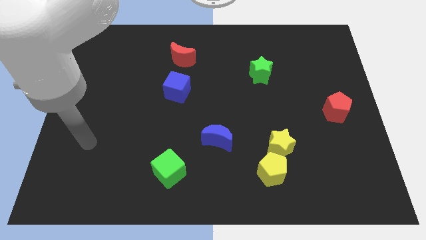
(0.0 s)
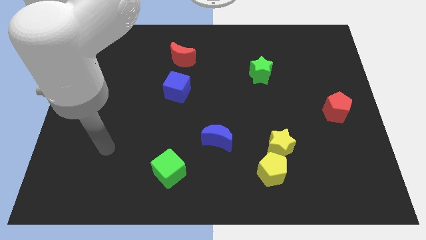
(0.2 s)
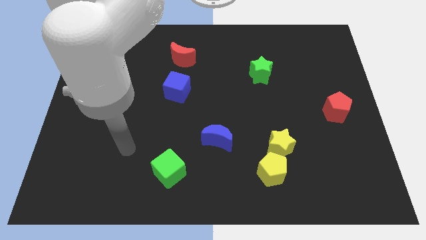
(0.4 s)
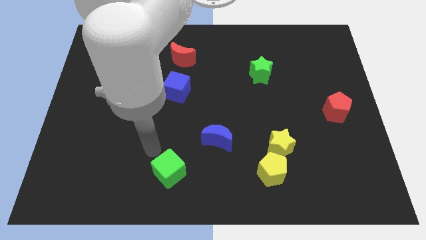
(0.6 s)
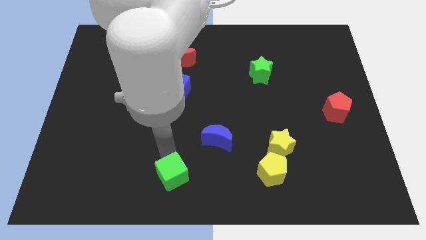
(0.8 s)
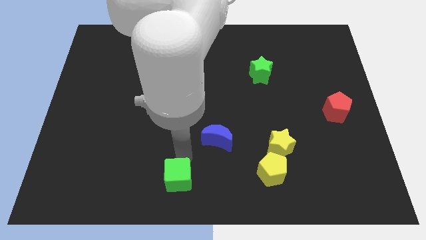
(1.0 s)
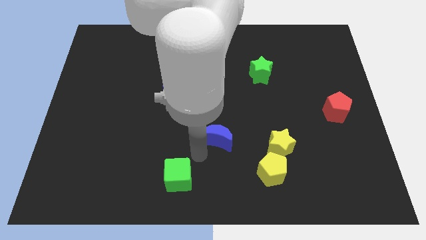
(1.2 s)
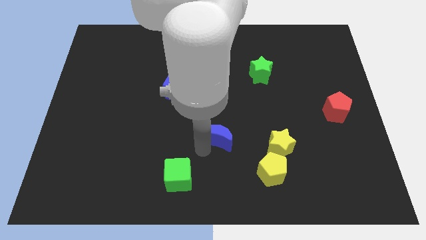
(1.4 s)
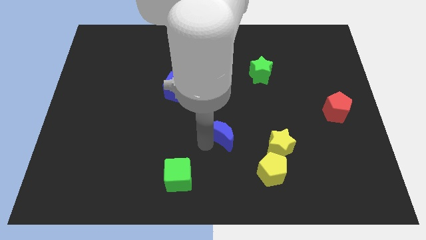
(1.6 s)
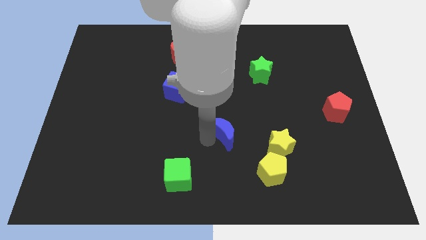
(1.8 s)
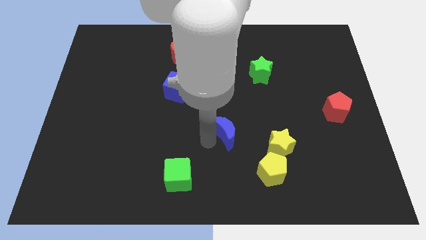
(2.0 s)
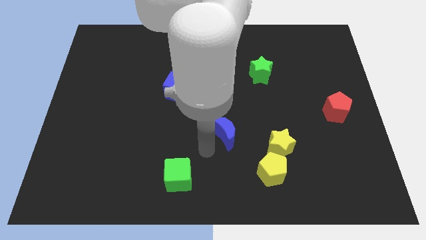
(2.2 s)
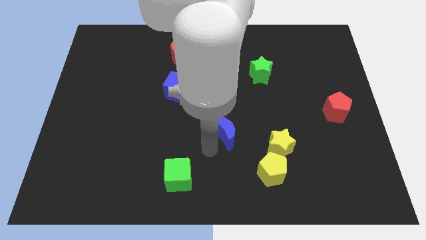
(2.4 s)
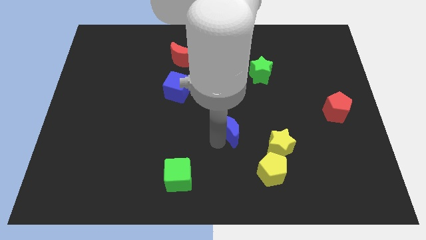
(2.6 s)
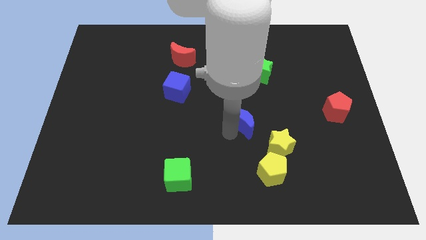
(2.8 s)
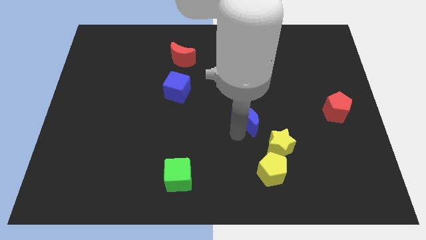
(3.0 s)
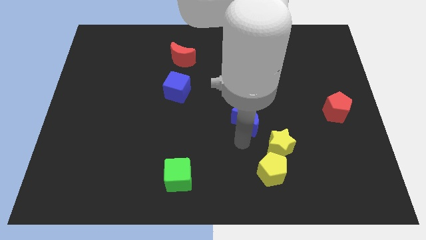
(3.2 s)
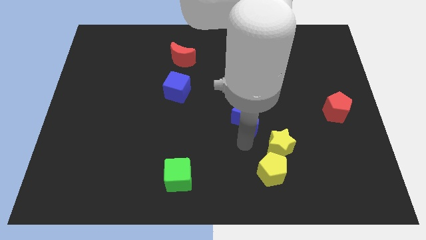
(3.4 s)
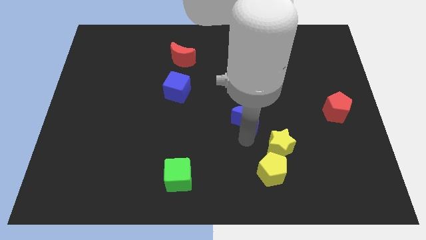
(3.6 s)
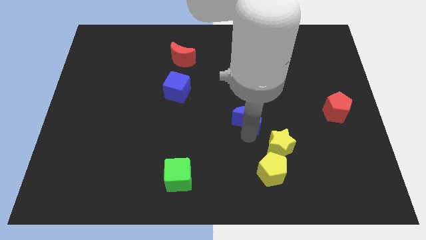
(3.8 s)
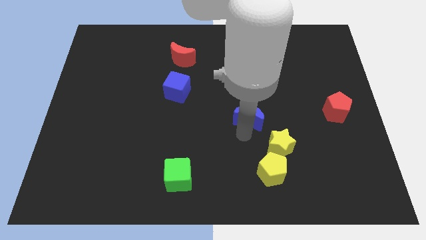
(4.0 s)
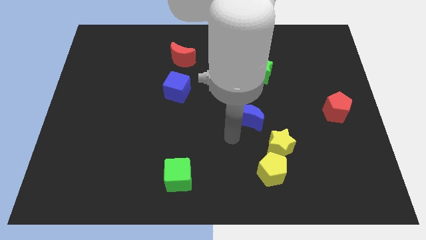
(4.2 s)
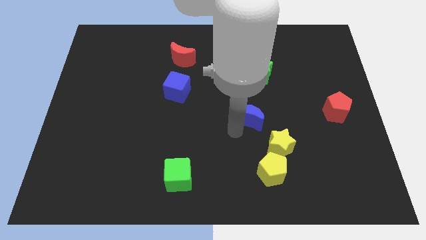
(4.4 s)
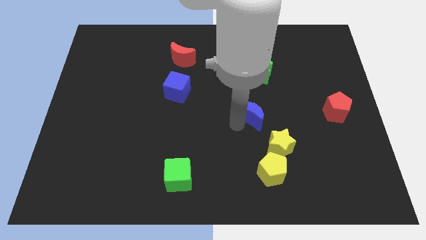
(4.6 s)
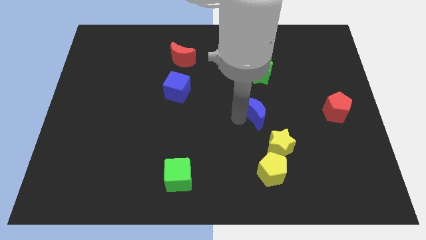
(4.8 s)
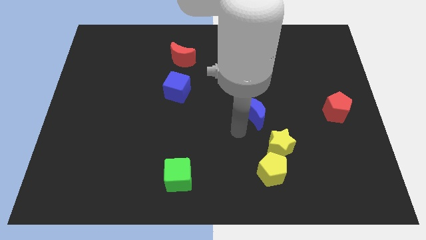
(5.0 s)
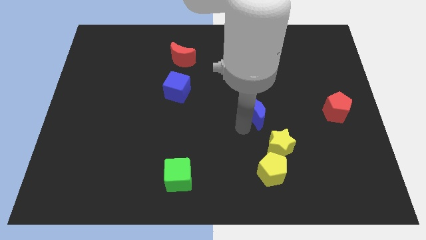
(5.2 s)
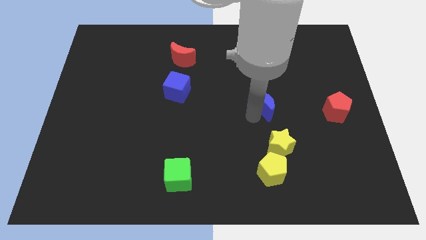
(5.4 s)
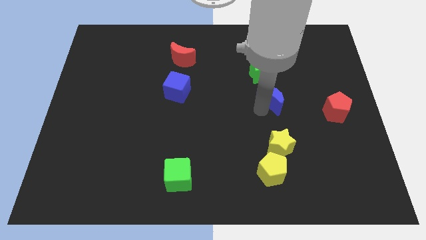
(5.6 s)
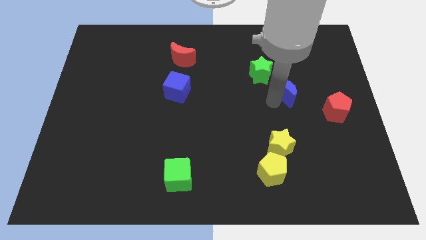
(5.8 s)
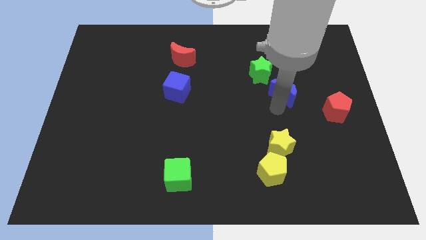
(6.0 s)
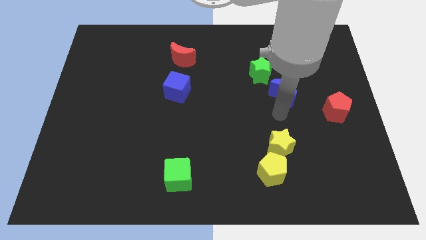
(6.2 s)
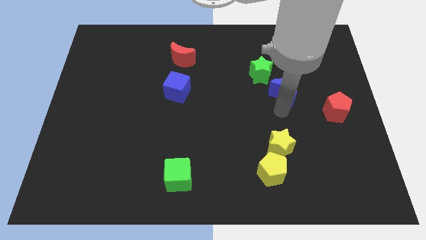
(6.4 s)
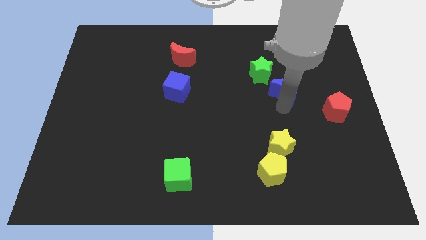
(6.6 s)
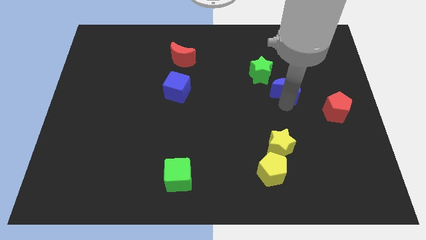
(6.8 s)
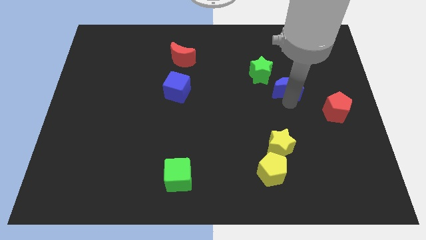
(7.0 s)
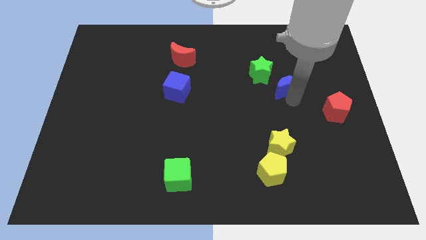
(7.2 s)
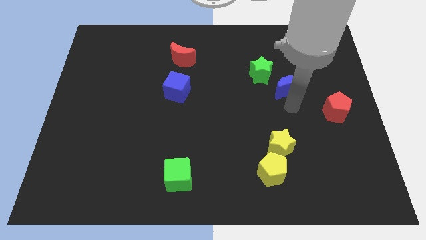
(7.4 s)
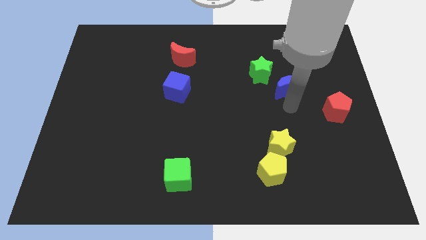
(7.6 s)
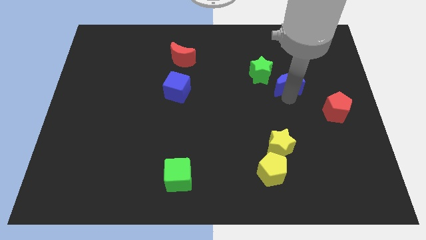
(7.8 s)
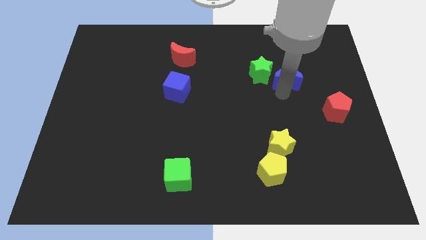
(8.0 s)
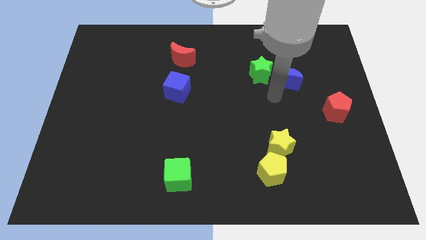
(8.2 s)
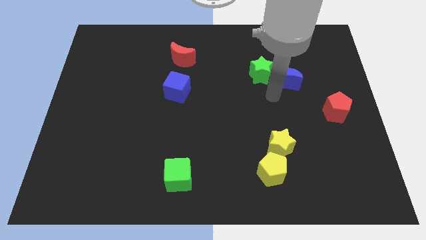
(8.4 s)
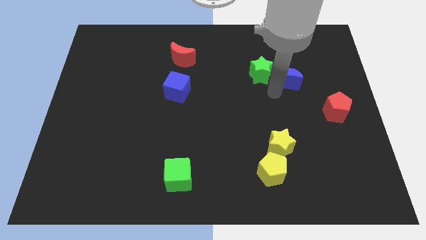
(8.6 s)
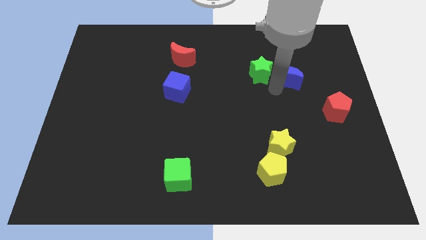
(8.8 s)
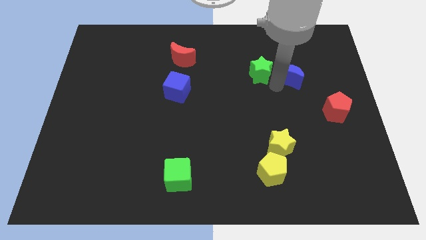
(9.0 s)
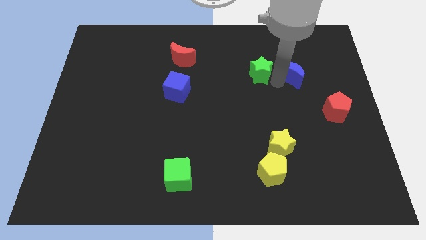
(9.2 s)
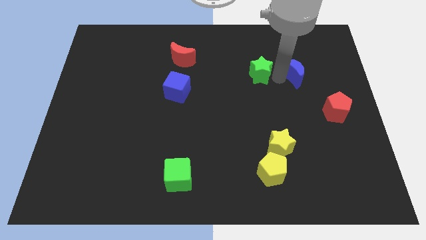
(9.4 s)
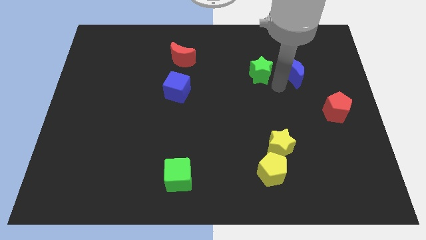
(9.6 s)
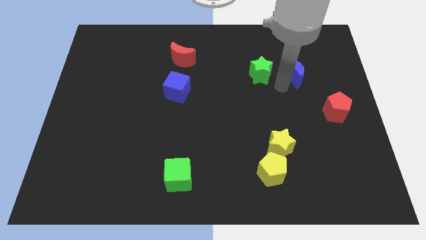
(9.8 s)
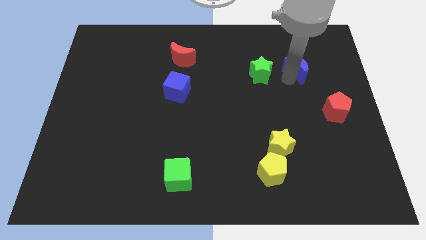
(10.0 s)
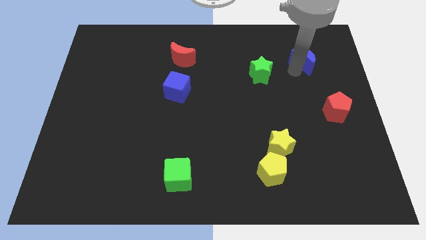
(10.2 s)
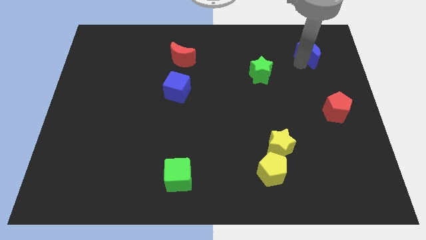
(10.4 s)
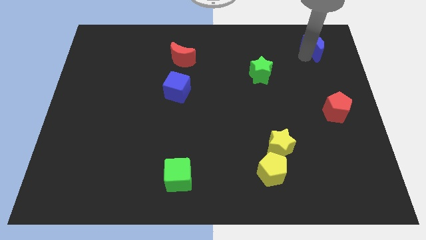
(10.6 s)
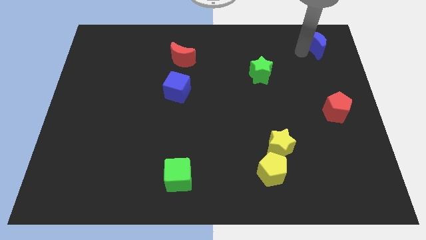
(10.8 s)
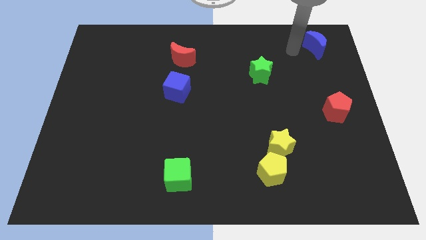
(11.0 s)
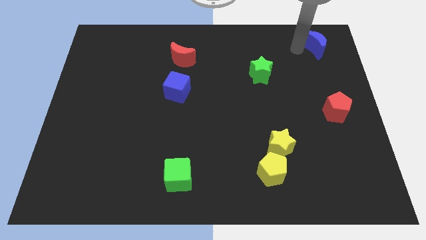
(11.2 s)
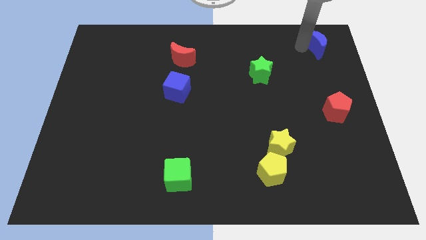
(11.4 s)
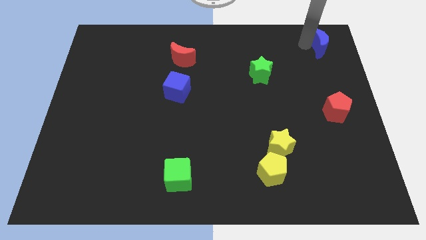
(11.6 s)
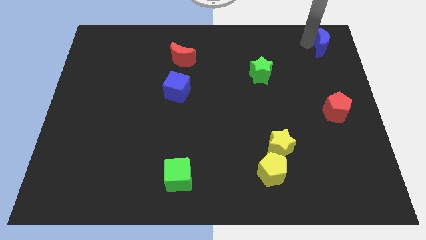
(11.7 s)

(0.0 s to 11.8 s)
put the blue moon to the top right corner

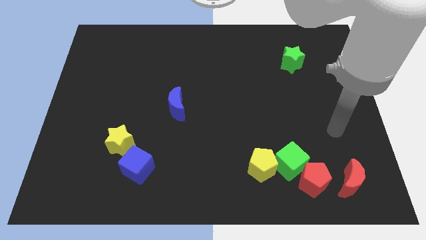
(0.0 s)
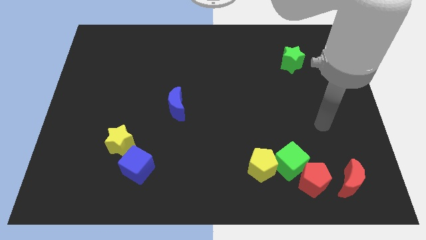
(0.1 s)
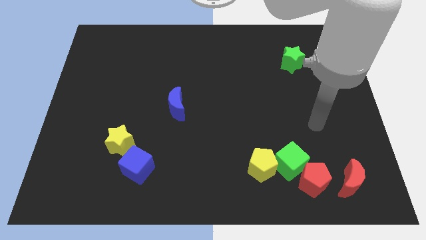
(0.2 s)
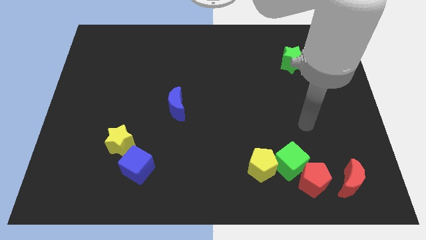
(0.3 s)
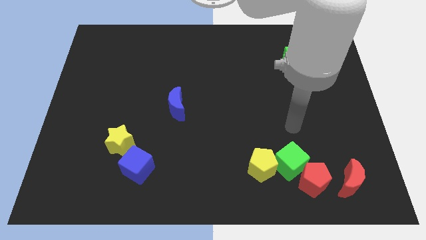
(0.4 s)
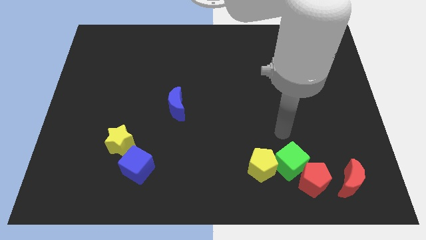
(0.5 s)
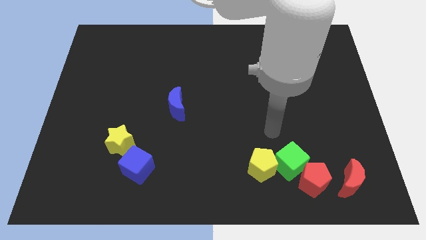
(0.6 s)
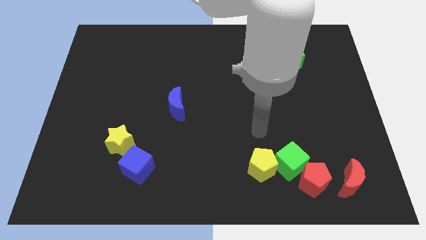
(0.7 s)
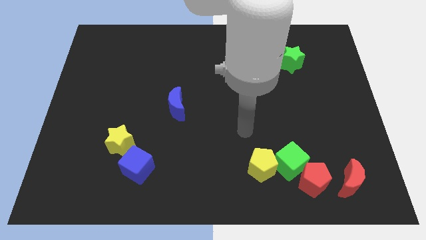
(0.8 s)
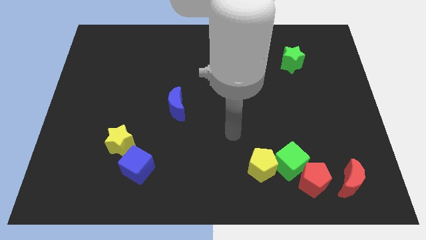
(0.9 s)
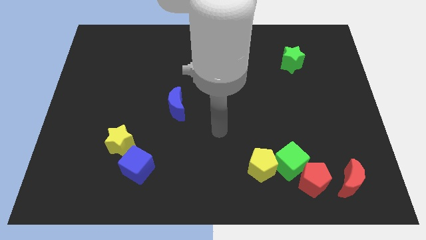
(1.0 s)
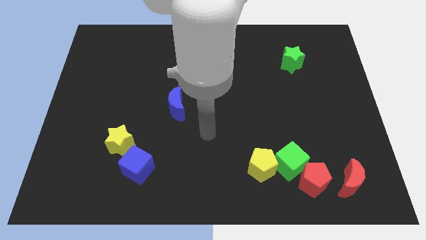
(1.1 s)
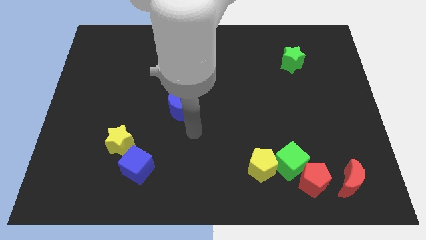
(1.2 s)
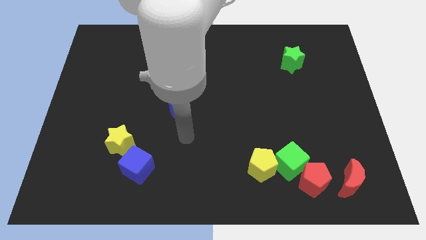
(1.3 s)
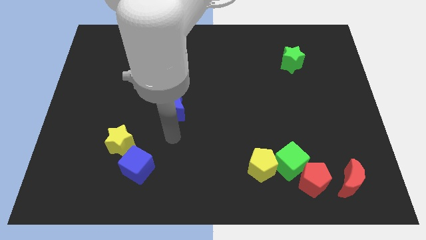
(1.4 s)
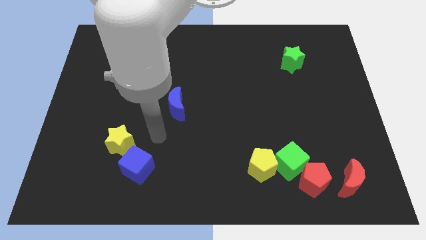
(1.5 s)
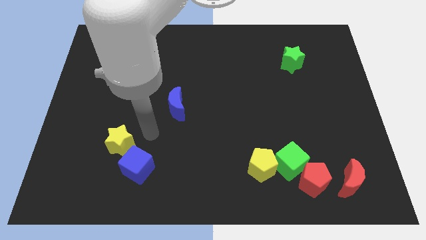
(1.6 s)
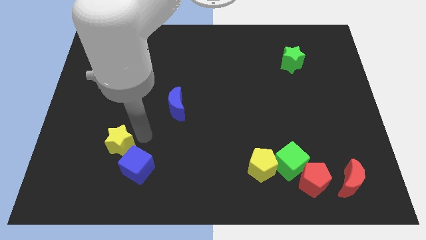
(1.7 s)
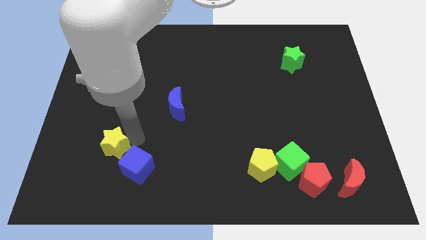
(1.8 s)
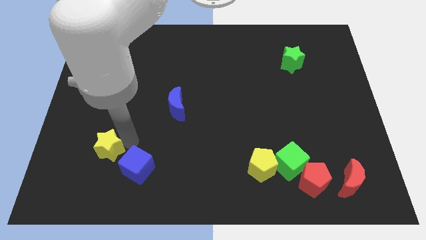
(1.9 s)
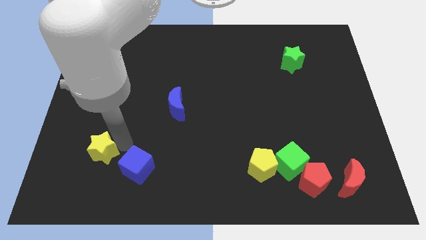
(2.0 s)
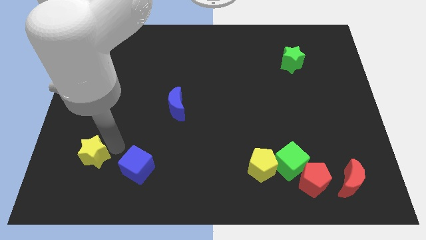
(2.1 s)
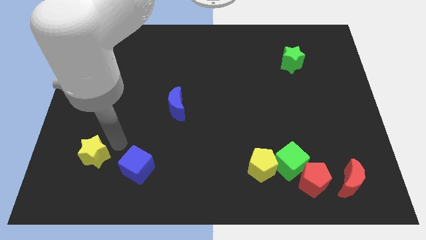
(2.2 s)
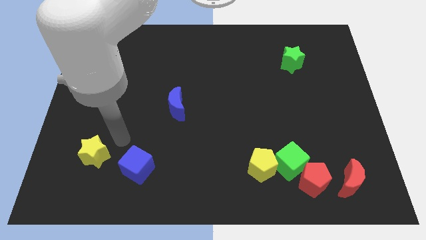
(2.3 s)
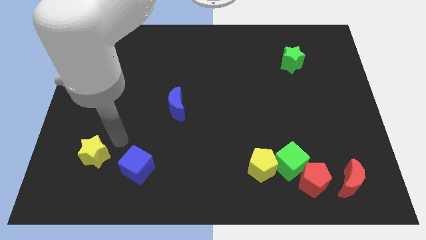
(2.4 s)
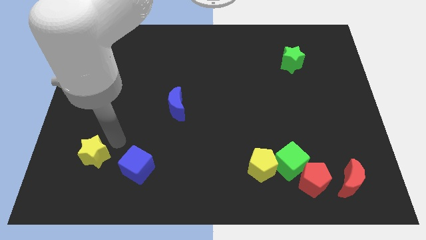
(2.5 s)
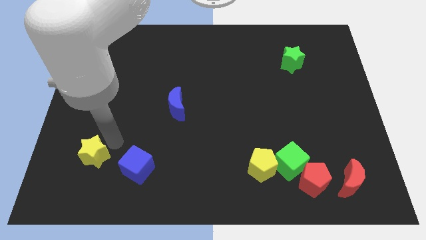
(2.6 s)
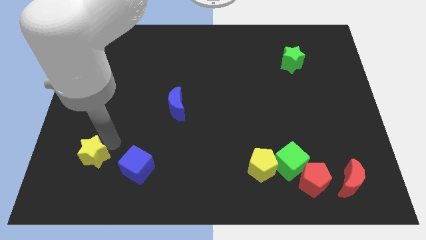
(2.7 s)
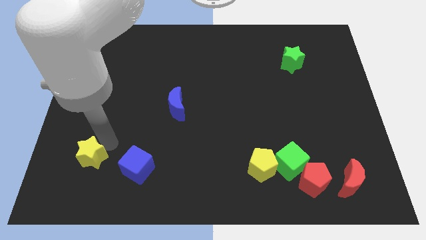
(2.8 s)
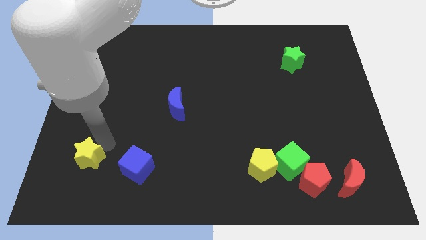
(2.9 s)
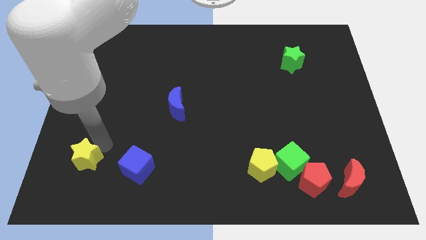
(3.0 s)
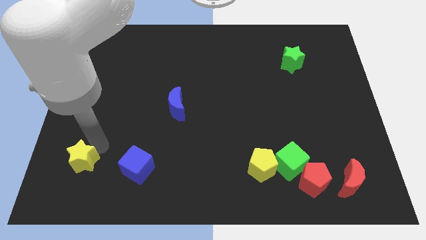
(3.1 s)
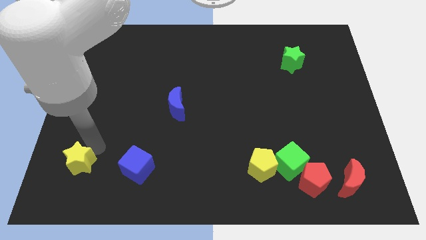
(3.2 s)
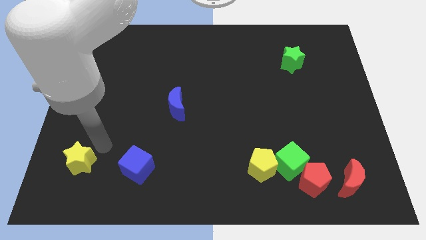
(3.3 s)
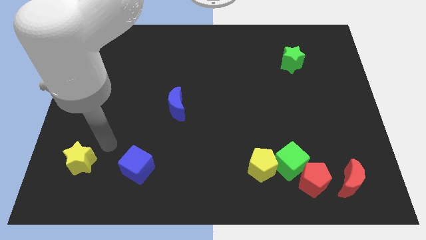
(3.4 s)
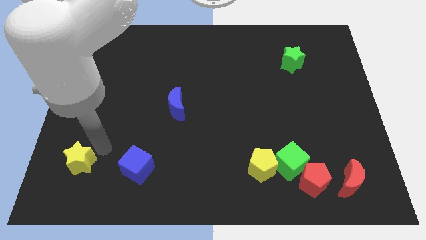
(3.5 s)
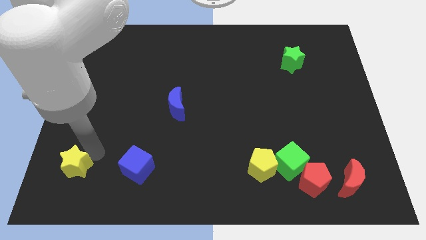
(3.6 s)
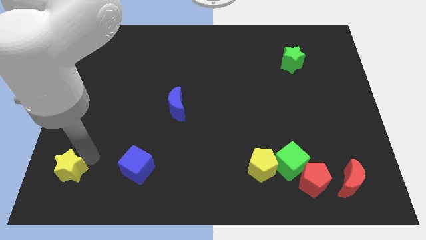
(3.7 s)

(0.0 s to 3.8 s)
slide the yellow star to the bottom left corner
